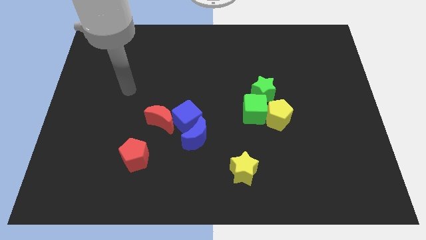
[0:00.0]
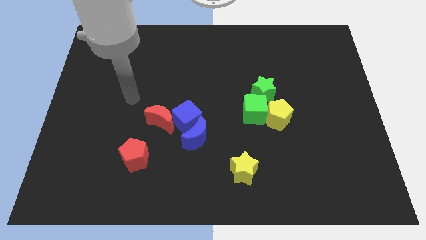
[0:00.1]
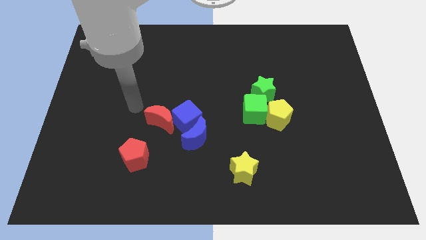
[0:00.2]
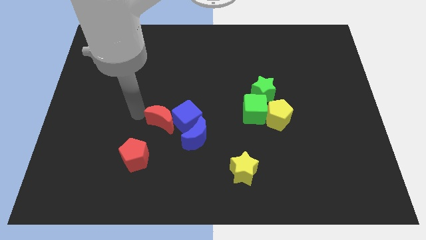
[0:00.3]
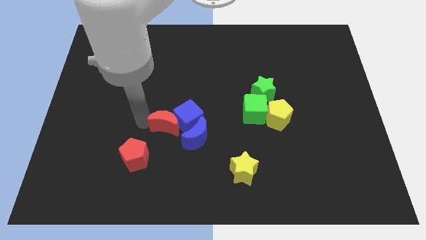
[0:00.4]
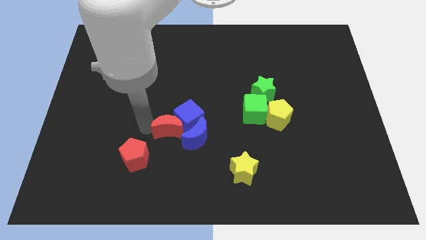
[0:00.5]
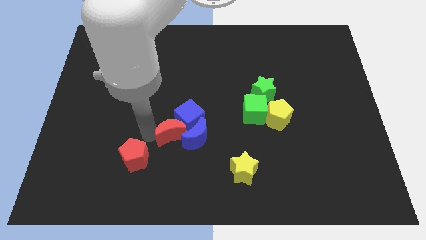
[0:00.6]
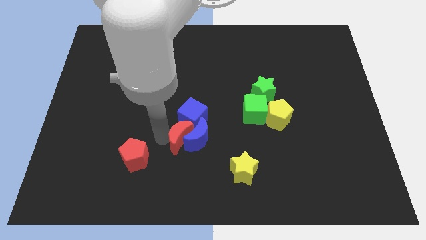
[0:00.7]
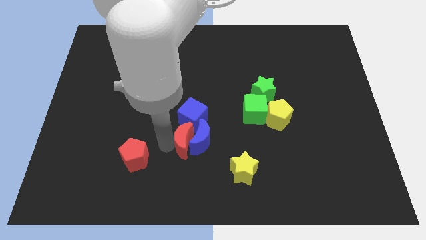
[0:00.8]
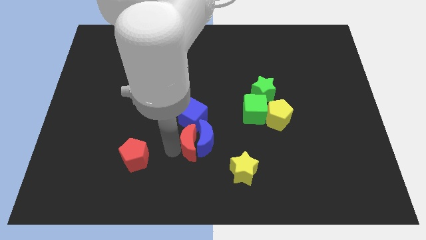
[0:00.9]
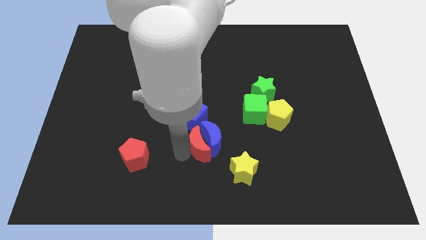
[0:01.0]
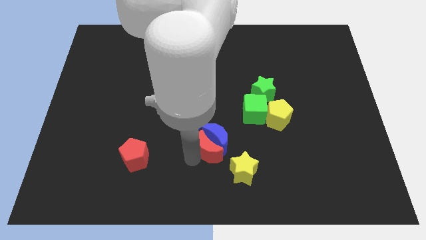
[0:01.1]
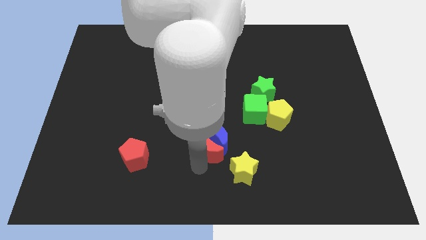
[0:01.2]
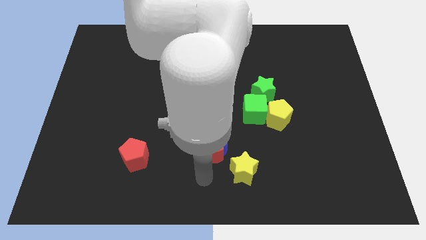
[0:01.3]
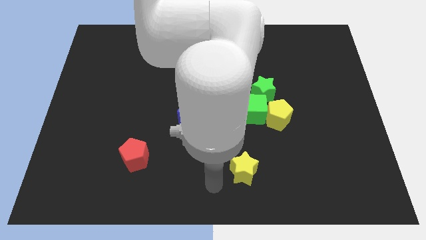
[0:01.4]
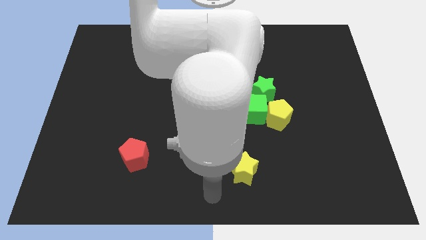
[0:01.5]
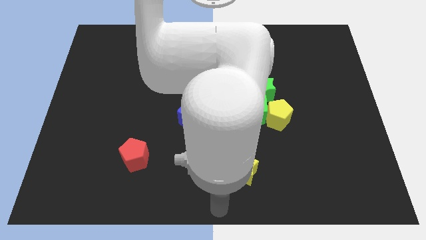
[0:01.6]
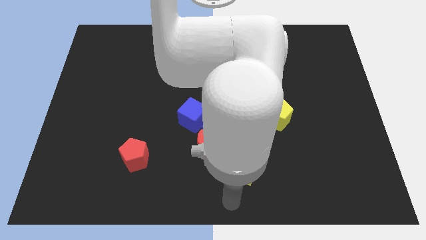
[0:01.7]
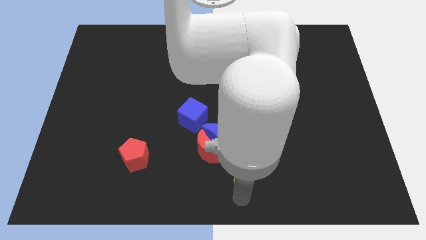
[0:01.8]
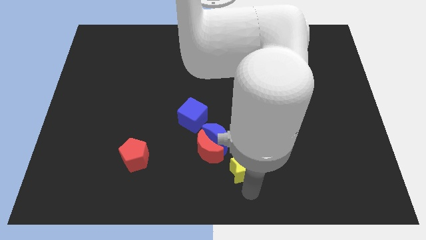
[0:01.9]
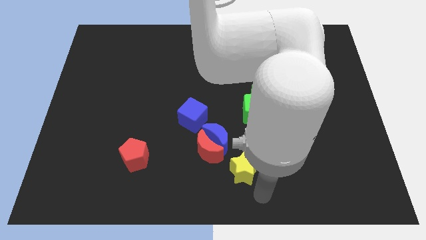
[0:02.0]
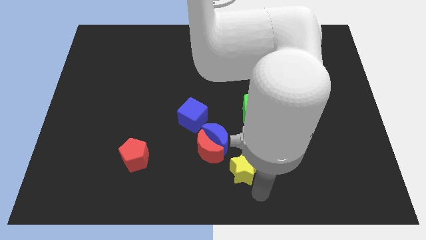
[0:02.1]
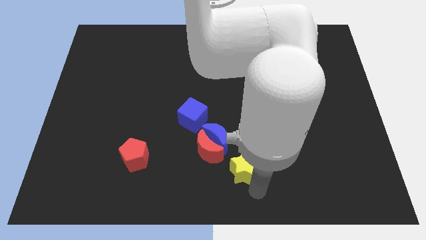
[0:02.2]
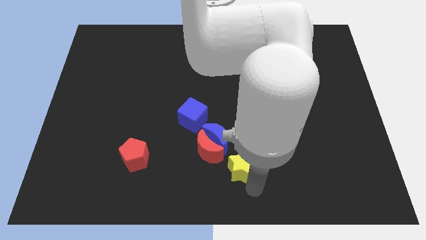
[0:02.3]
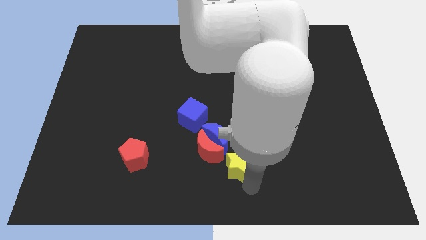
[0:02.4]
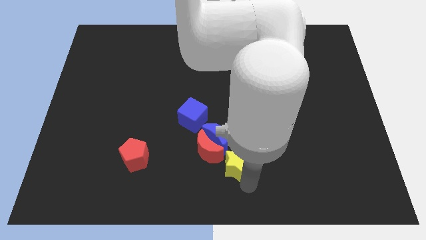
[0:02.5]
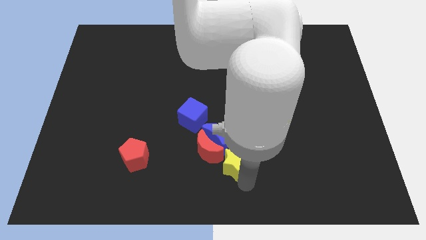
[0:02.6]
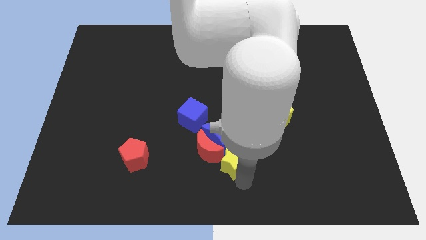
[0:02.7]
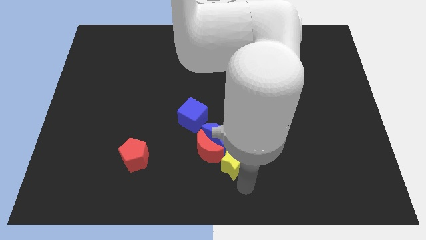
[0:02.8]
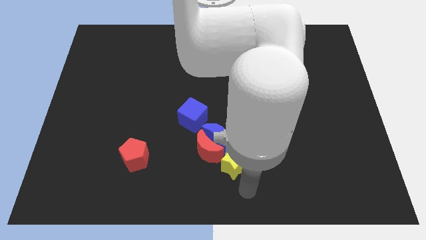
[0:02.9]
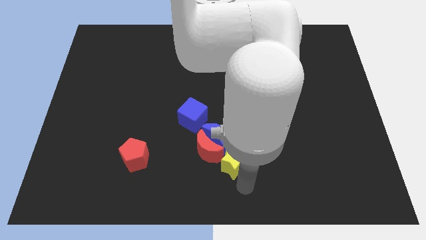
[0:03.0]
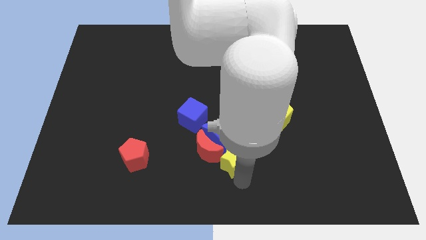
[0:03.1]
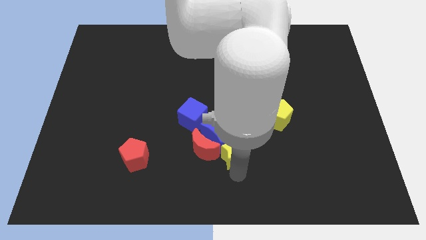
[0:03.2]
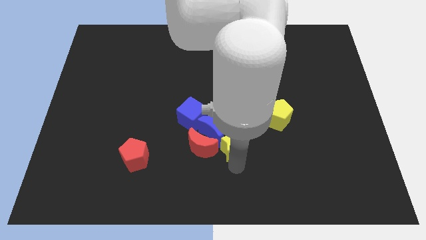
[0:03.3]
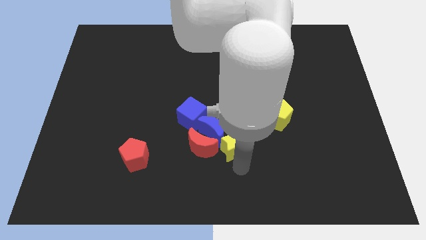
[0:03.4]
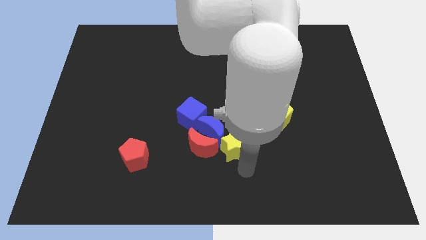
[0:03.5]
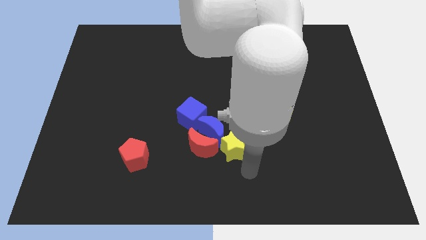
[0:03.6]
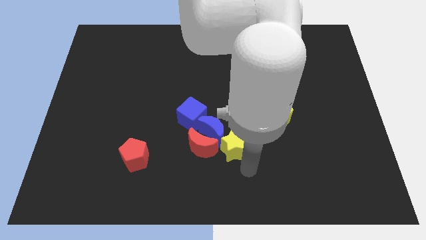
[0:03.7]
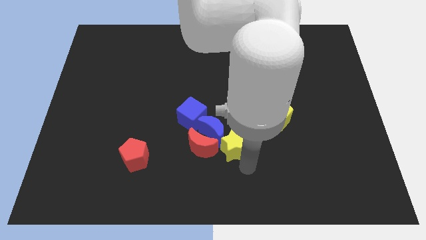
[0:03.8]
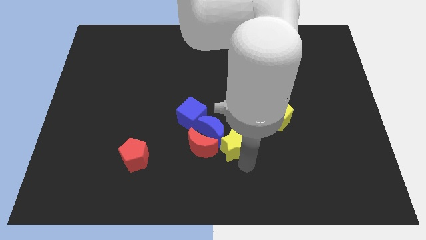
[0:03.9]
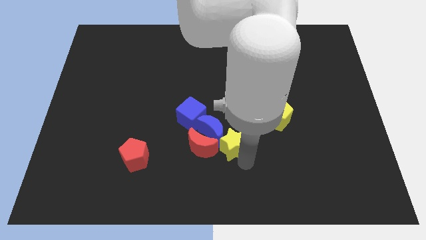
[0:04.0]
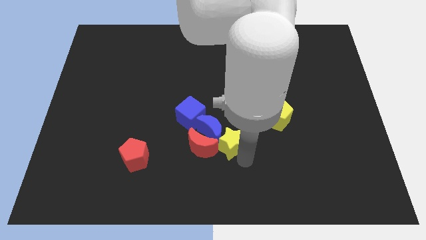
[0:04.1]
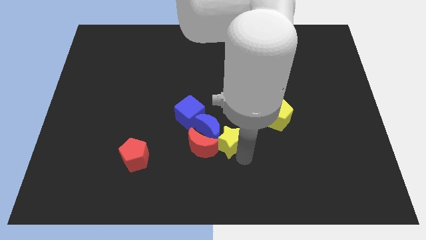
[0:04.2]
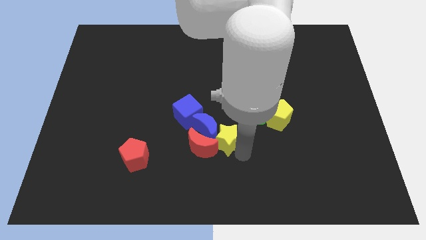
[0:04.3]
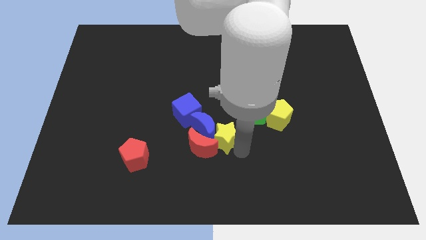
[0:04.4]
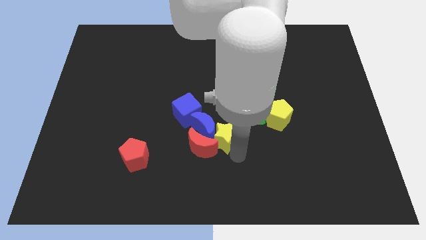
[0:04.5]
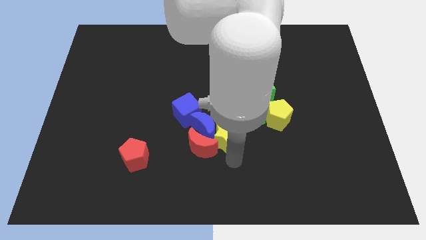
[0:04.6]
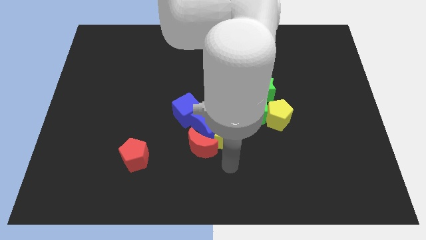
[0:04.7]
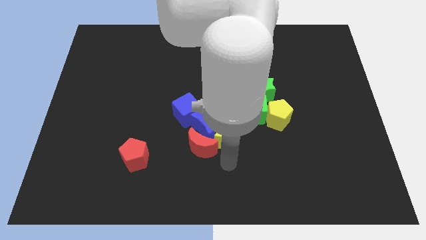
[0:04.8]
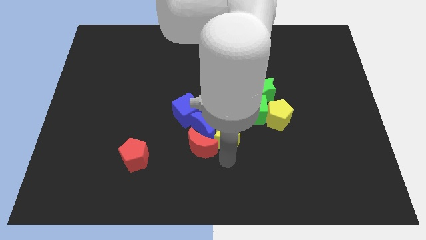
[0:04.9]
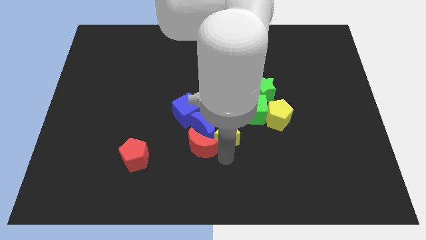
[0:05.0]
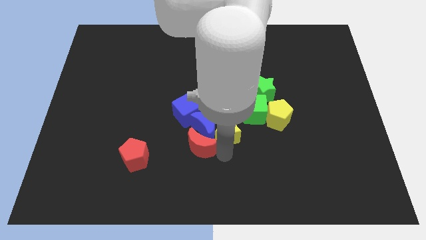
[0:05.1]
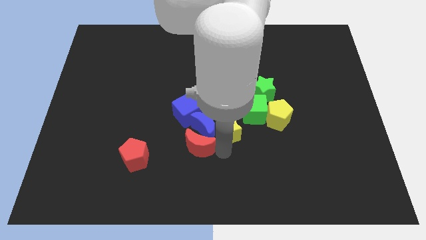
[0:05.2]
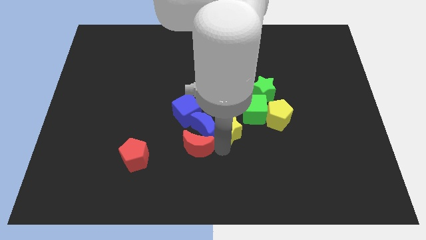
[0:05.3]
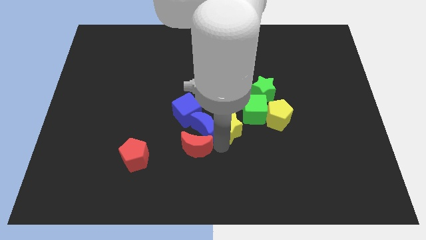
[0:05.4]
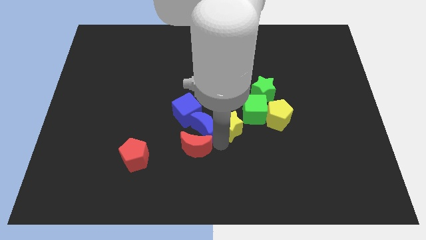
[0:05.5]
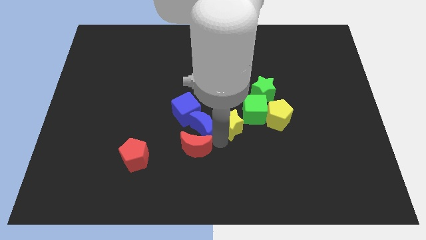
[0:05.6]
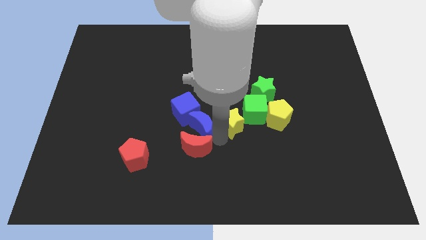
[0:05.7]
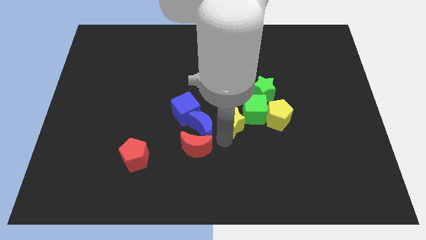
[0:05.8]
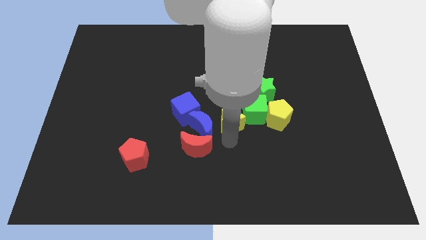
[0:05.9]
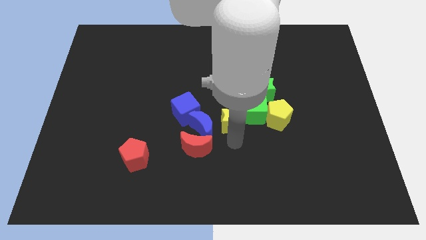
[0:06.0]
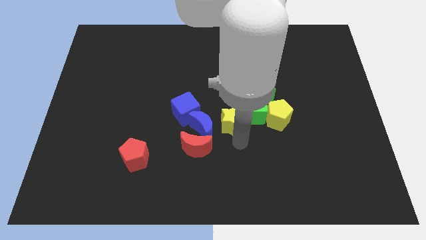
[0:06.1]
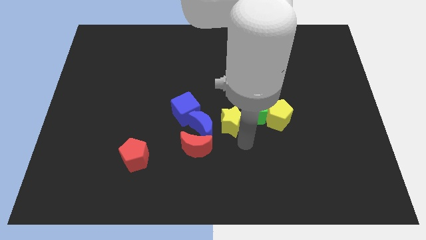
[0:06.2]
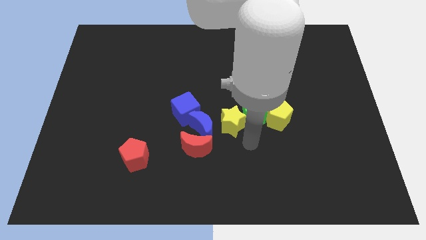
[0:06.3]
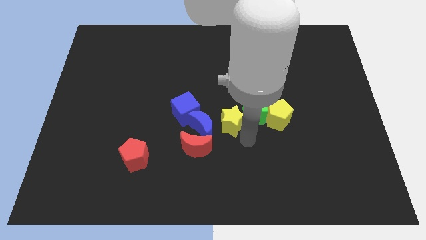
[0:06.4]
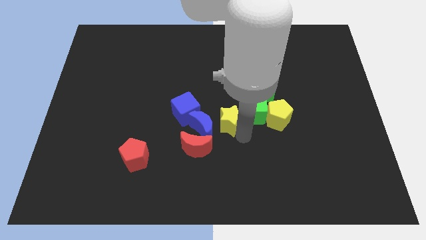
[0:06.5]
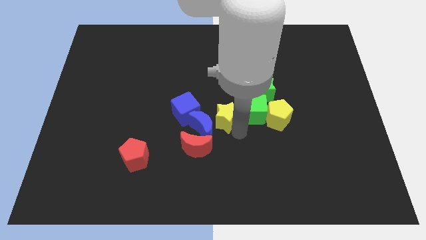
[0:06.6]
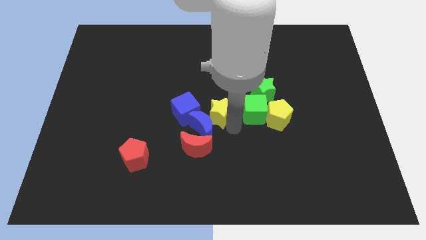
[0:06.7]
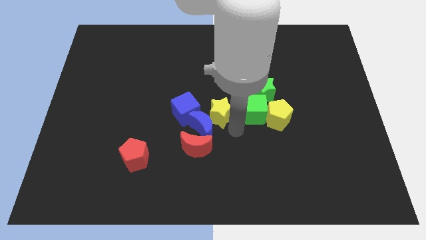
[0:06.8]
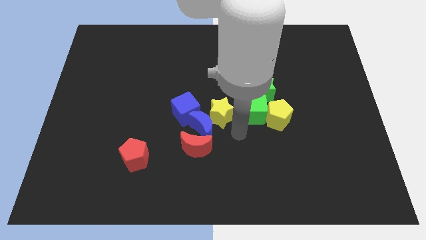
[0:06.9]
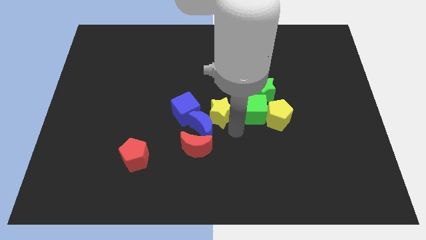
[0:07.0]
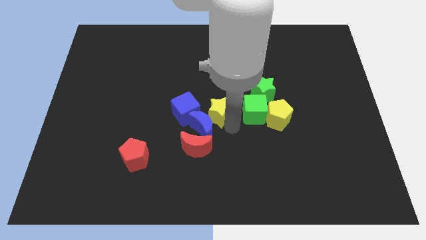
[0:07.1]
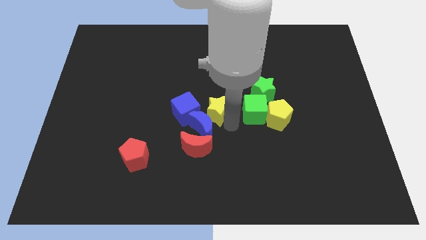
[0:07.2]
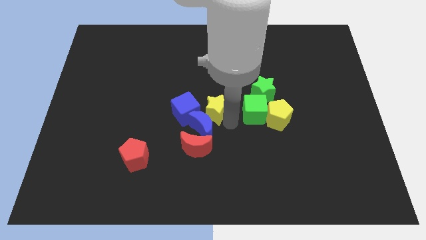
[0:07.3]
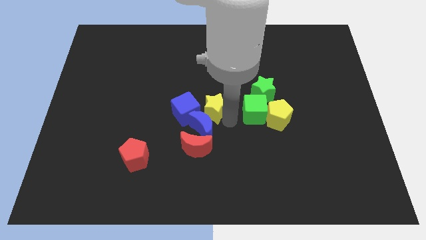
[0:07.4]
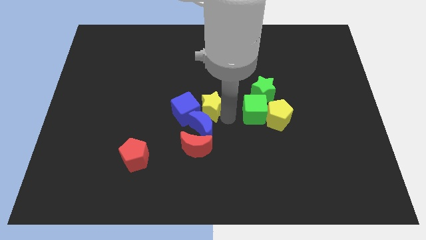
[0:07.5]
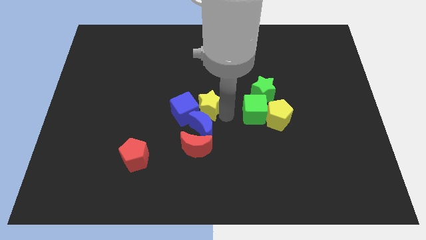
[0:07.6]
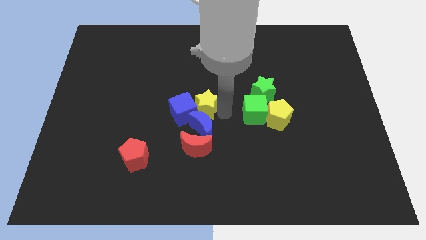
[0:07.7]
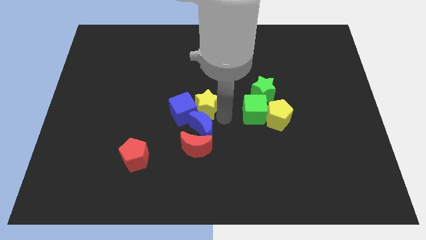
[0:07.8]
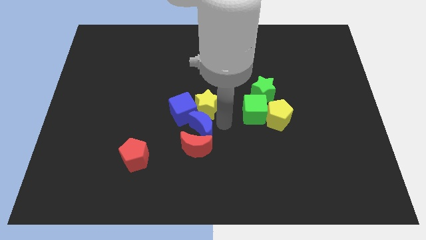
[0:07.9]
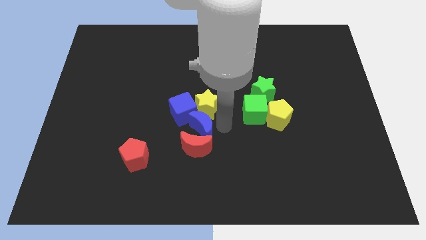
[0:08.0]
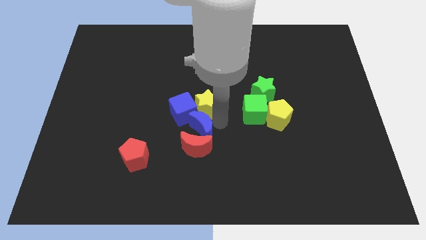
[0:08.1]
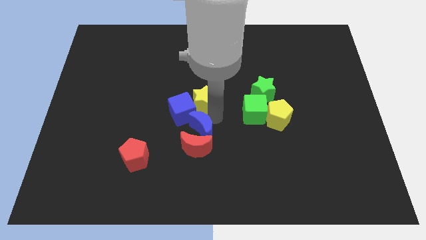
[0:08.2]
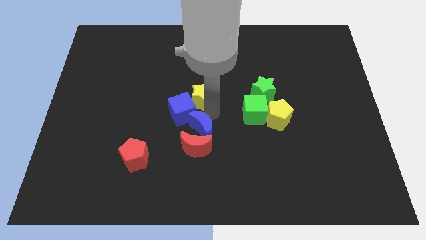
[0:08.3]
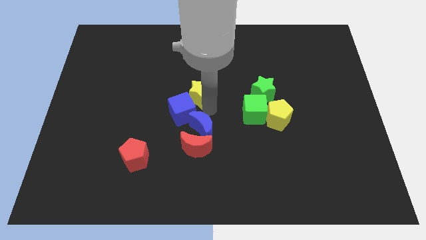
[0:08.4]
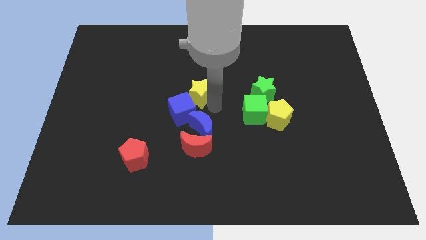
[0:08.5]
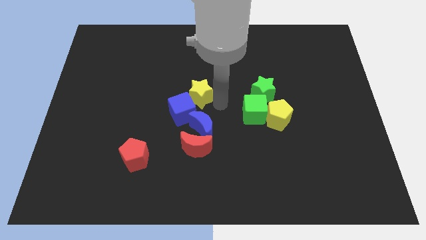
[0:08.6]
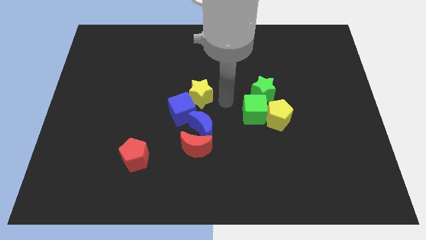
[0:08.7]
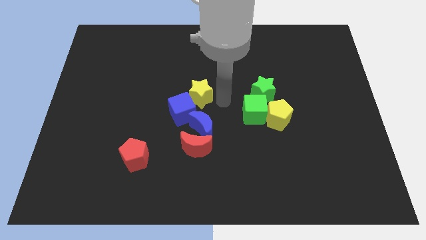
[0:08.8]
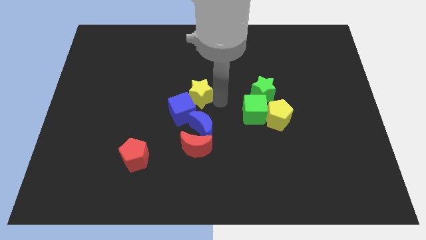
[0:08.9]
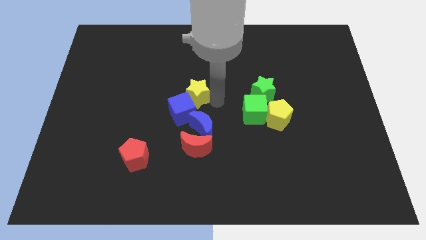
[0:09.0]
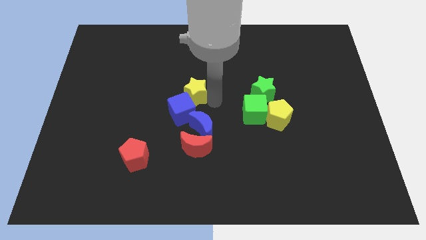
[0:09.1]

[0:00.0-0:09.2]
push the yellow star upwards and to the left diagonally
